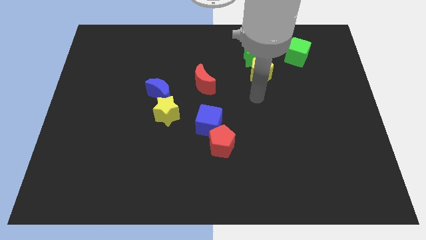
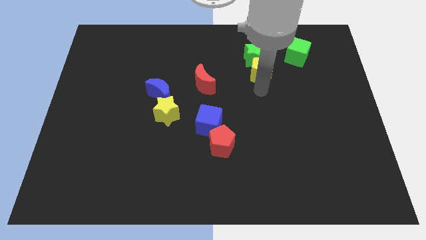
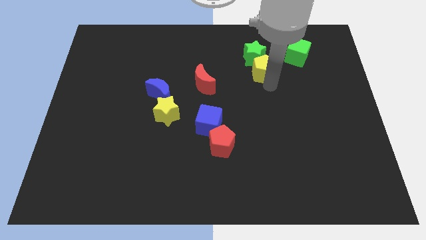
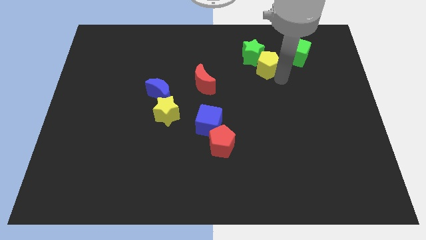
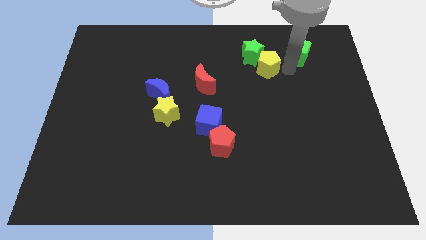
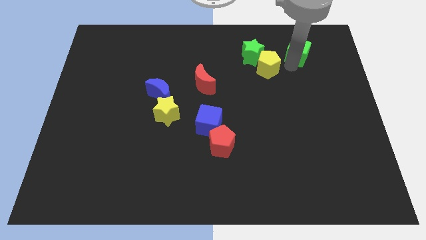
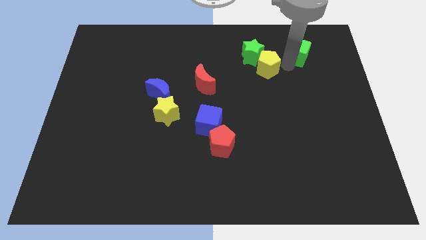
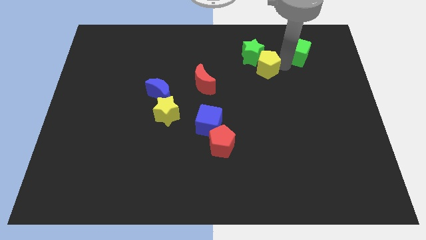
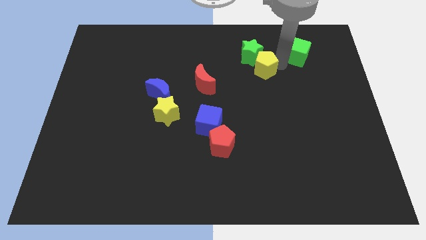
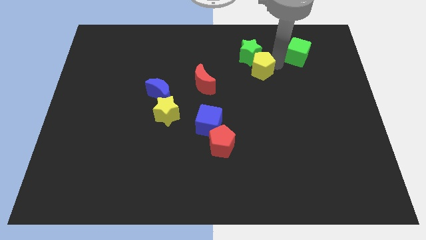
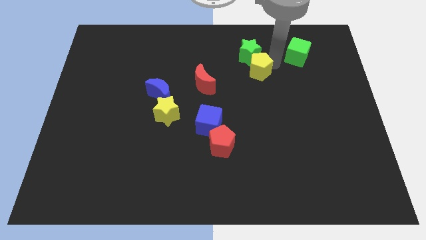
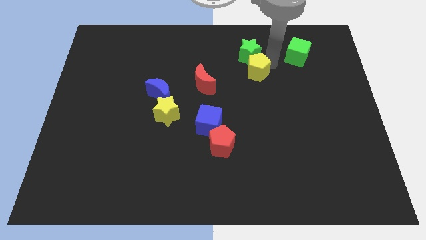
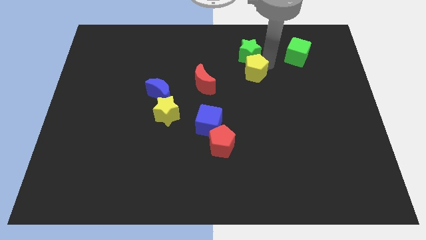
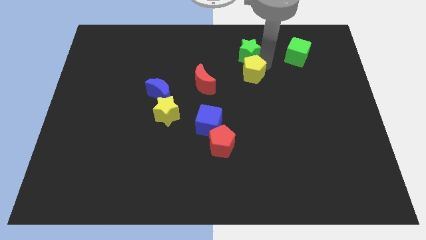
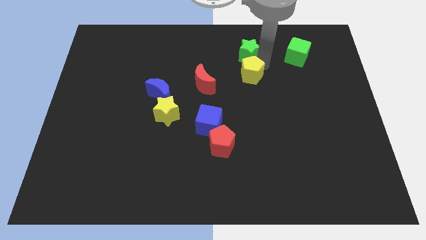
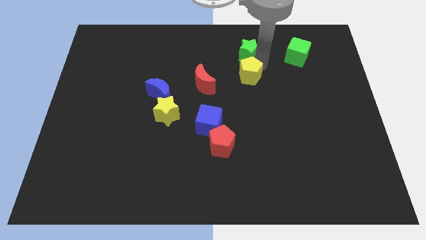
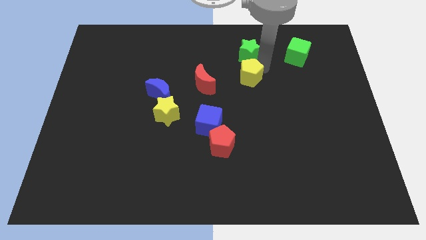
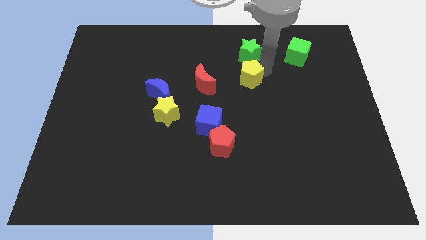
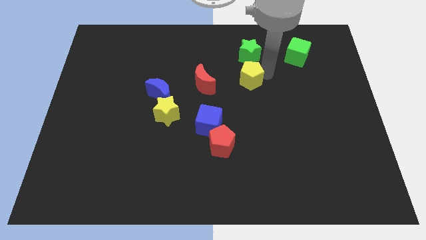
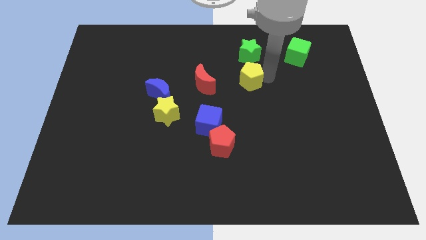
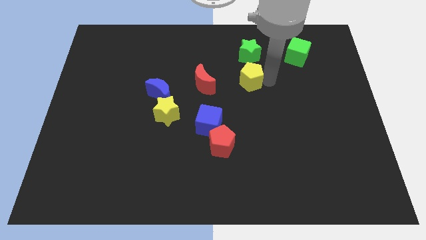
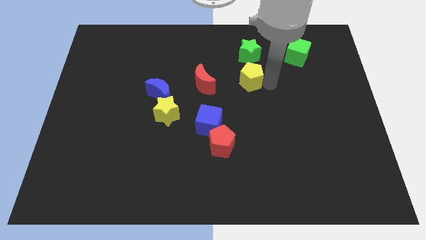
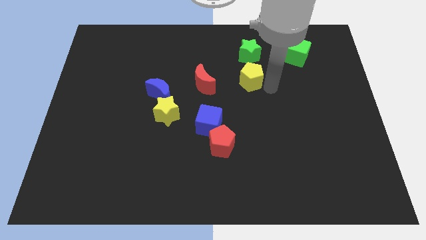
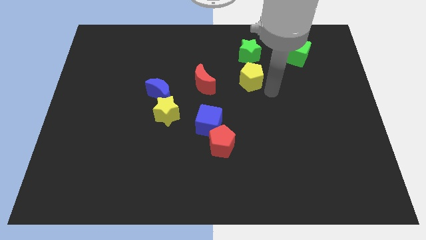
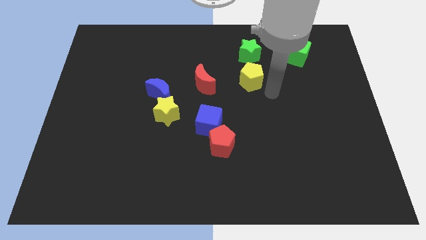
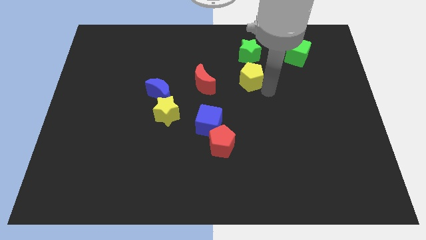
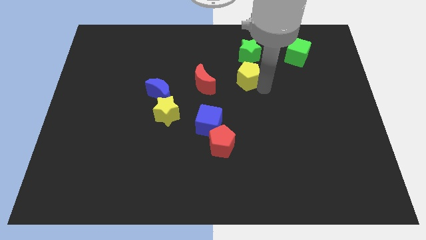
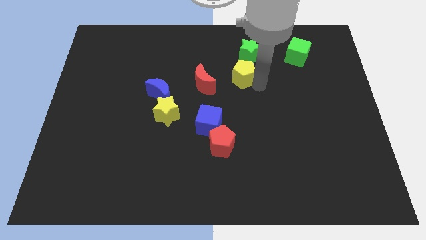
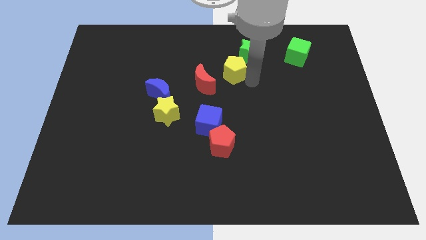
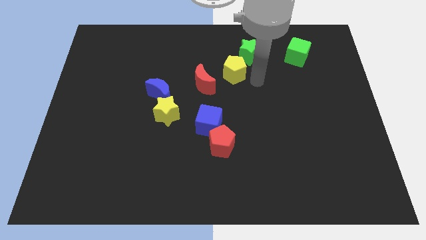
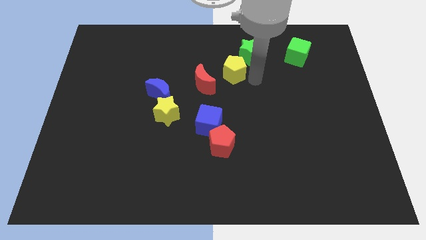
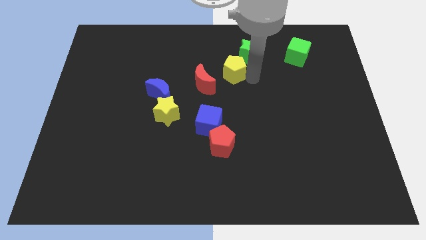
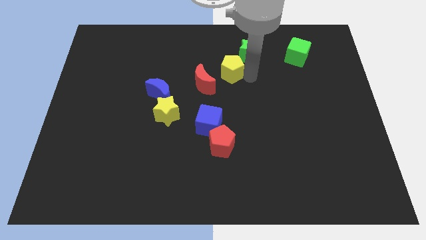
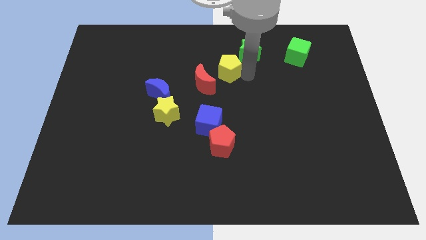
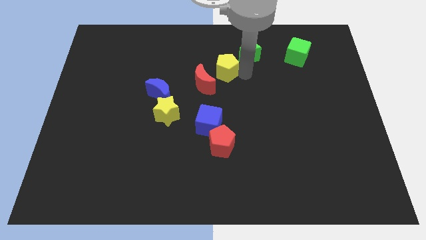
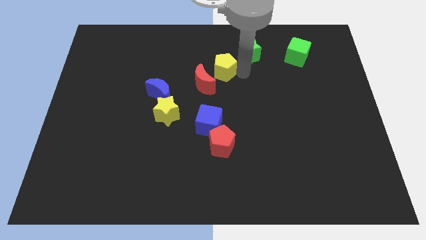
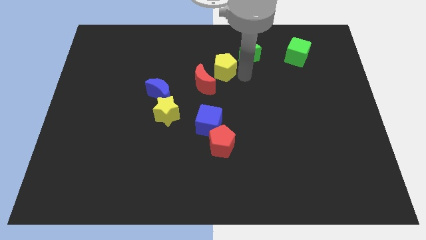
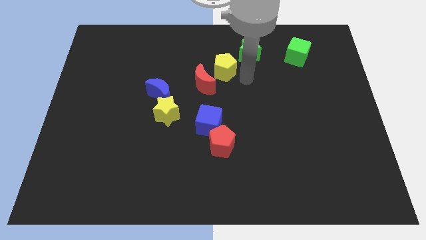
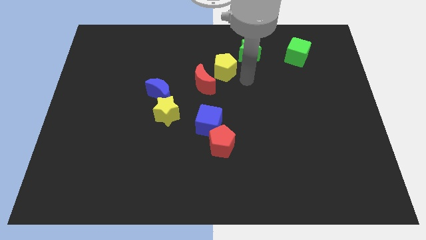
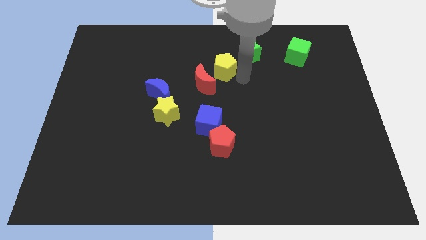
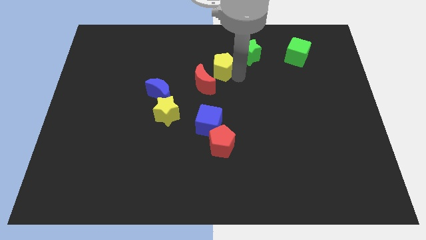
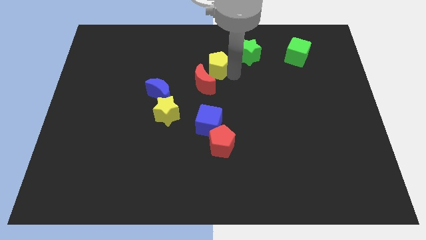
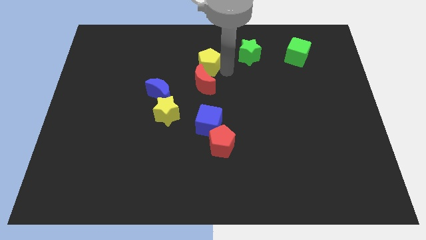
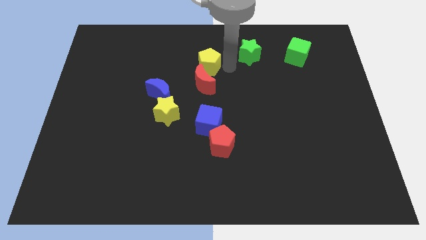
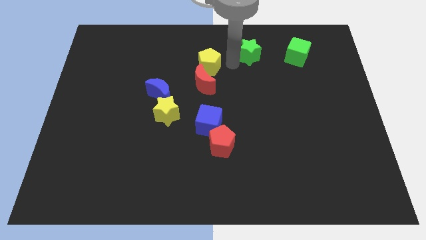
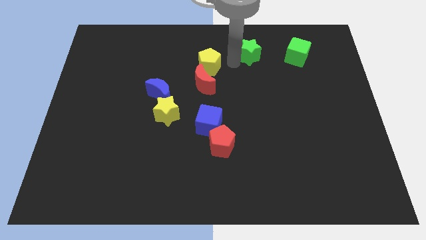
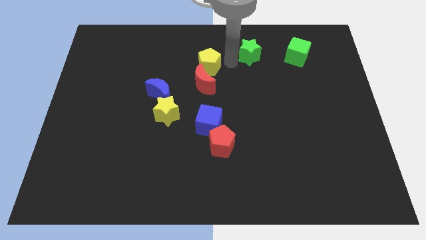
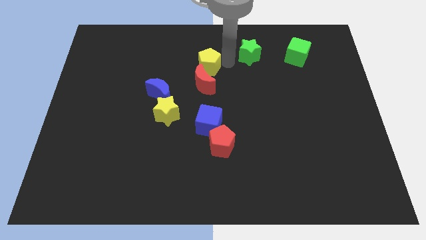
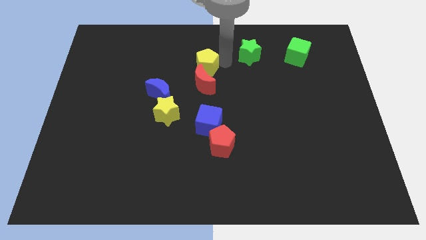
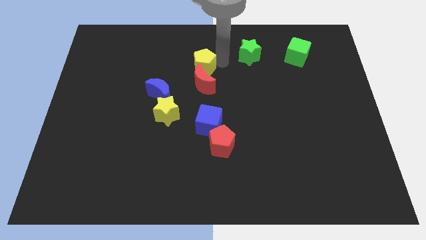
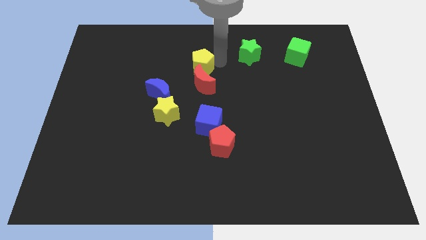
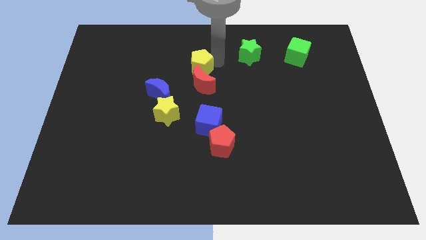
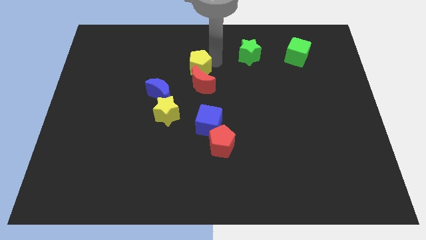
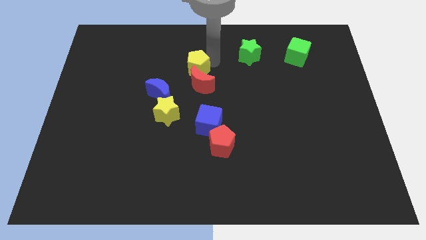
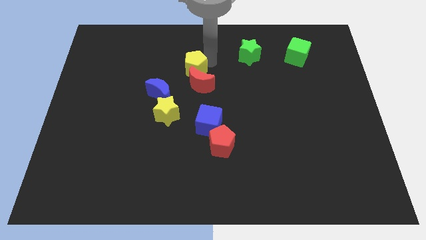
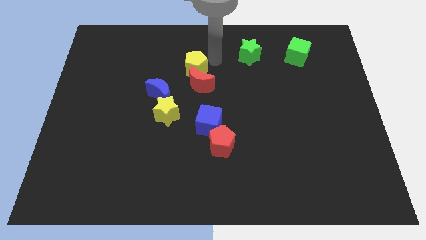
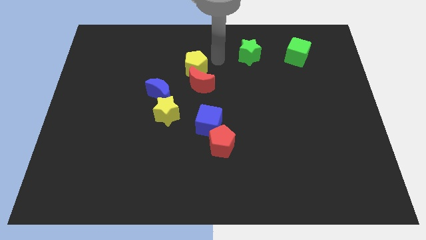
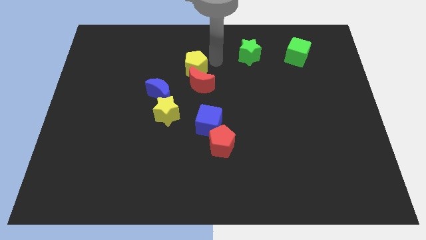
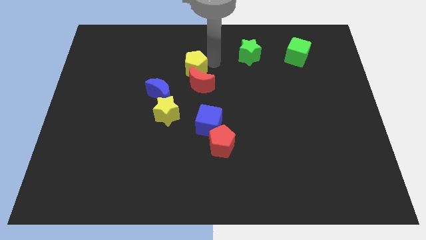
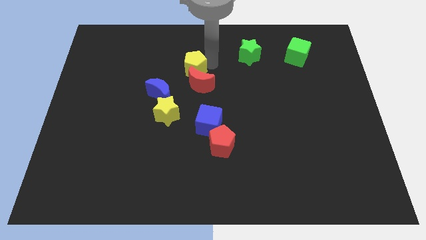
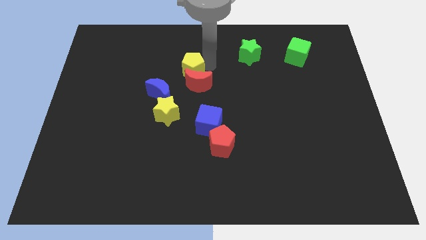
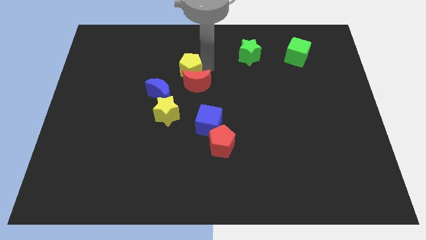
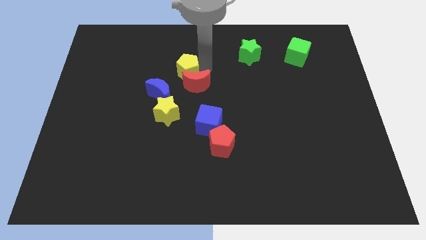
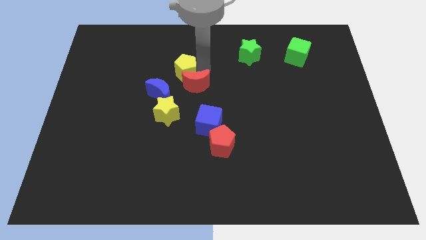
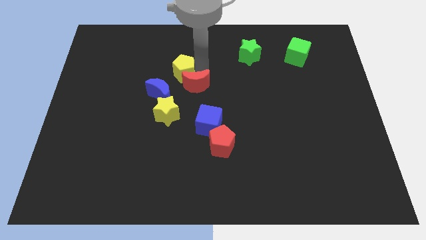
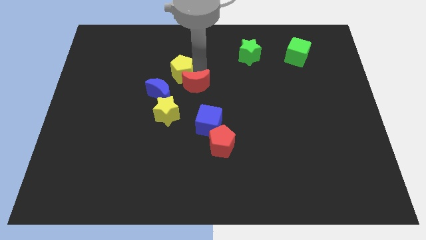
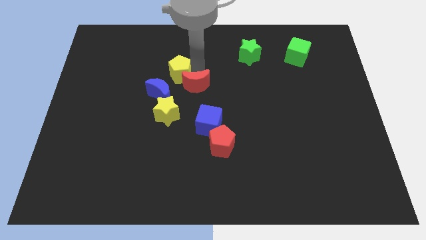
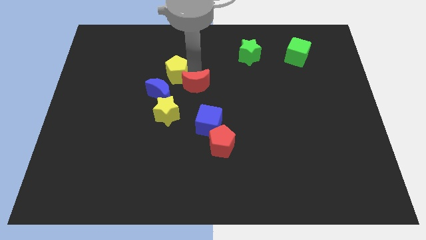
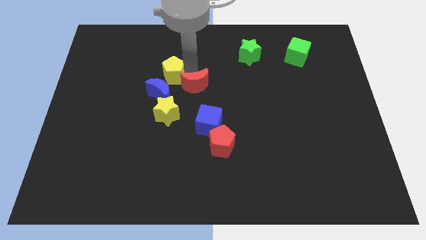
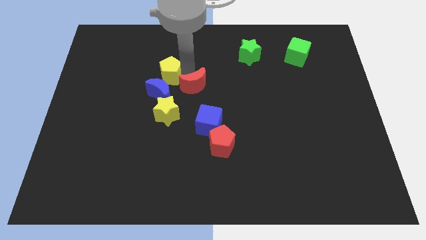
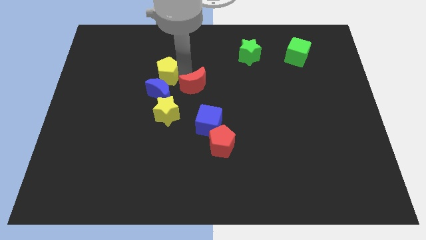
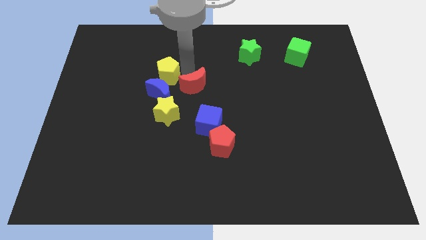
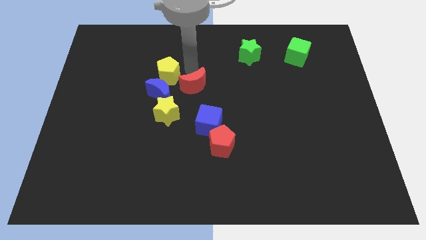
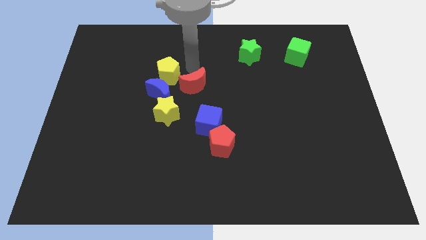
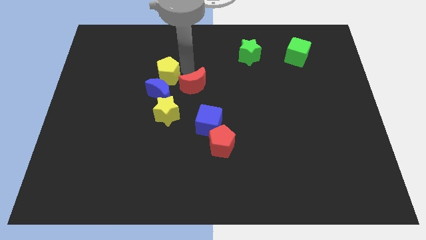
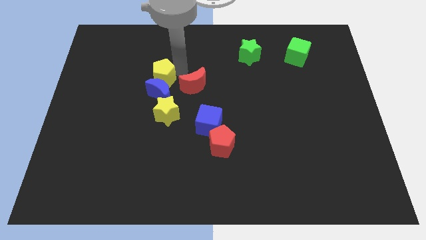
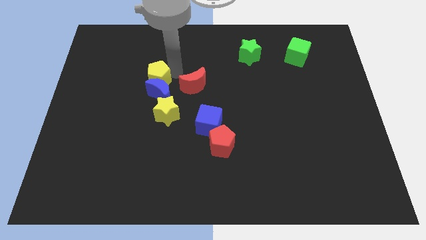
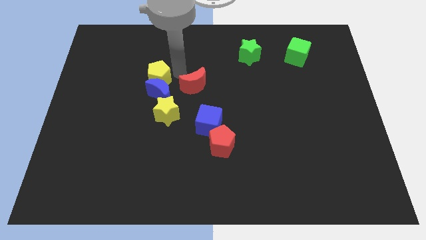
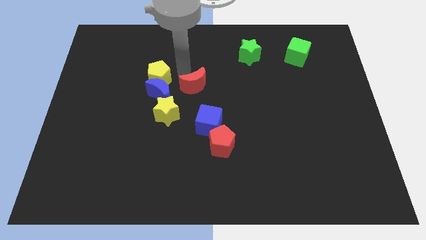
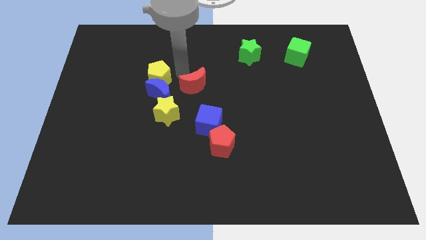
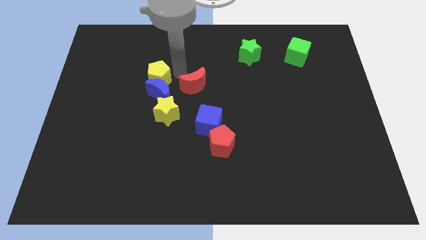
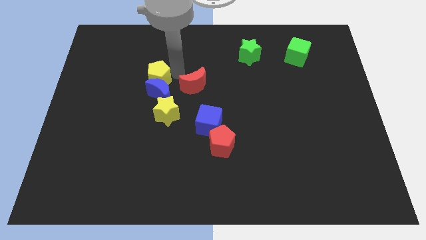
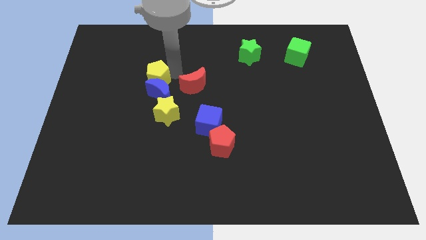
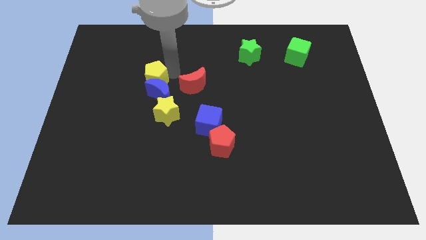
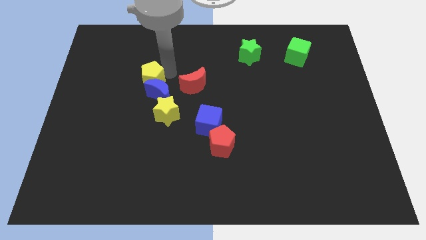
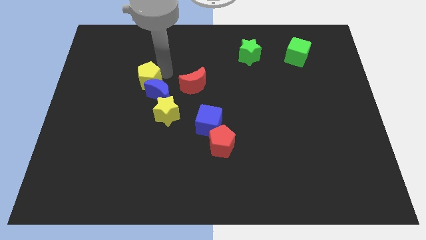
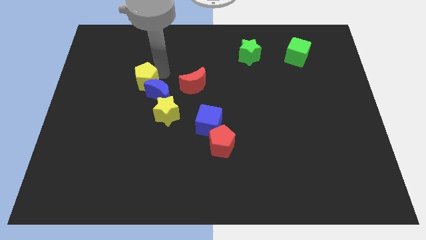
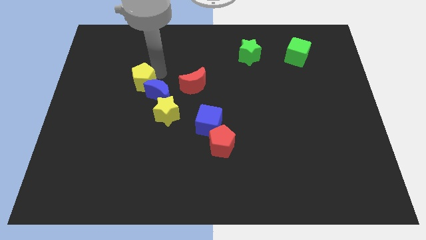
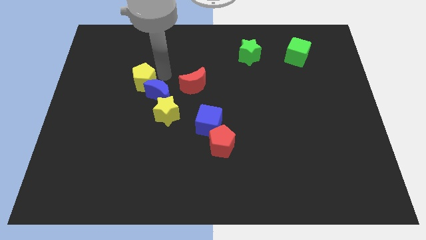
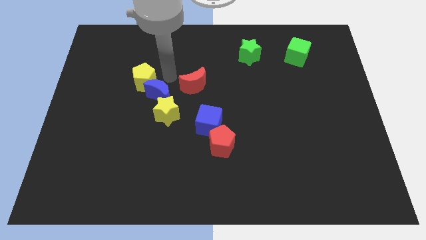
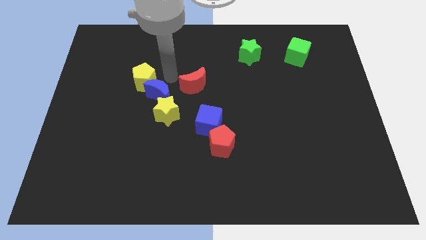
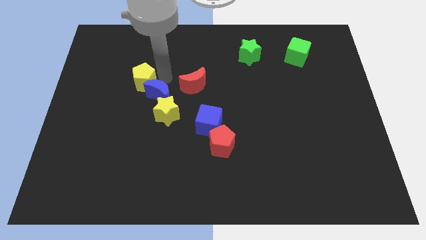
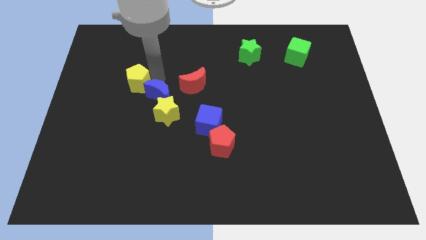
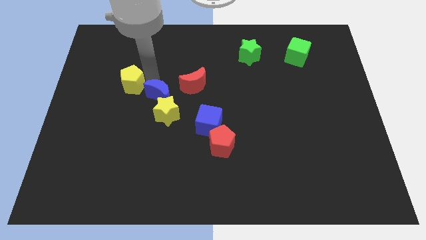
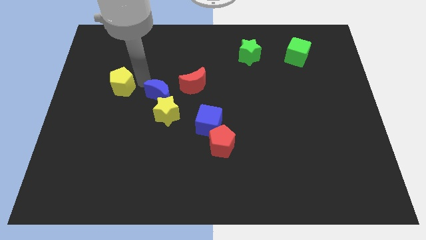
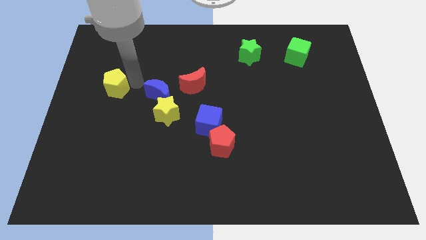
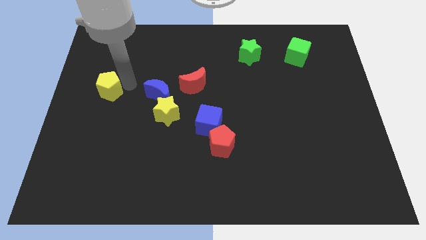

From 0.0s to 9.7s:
push the yellow pentagon to the left side of the board
